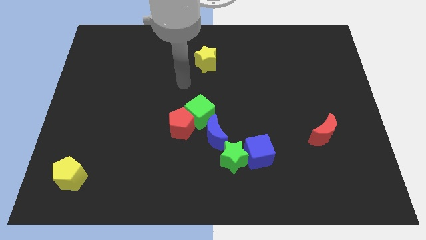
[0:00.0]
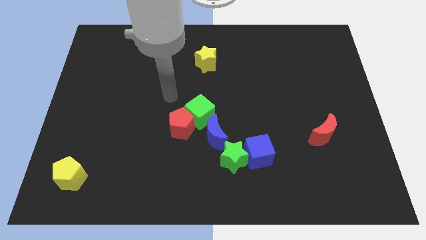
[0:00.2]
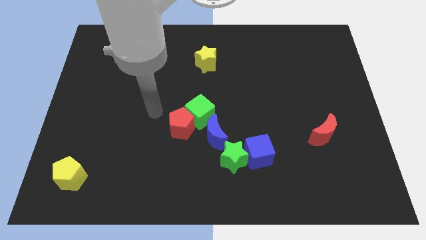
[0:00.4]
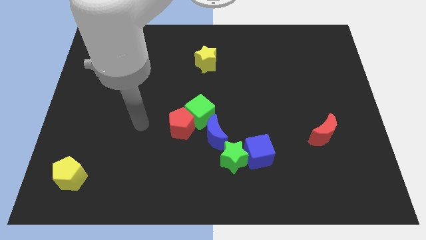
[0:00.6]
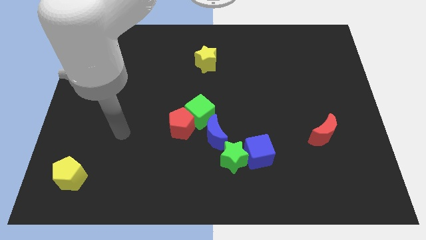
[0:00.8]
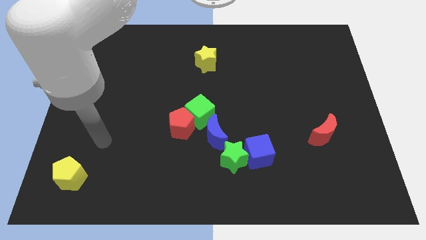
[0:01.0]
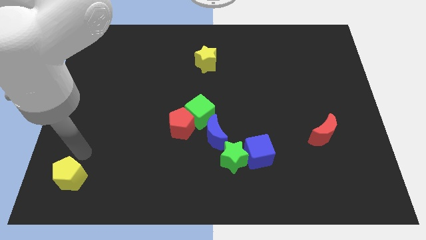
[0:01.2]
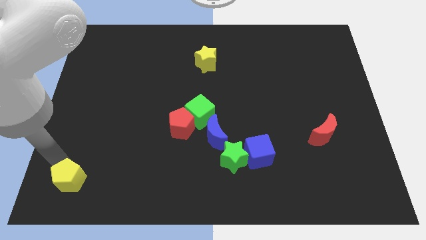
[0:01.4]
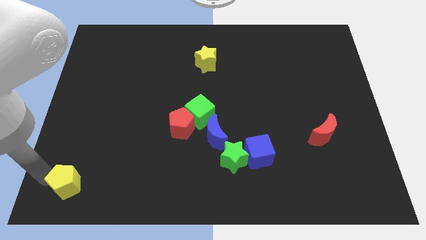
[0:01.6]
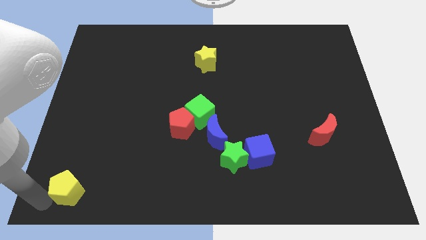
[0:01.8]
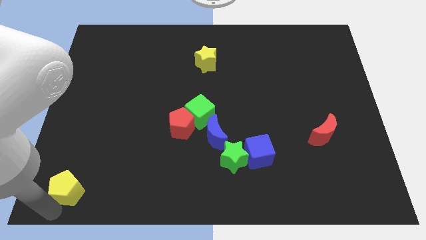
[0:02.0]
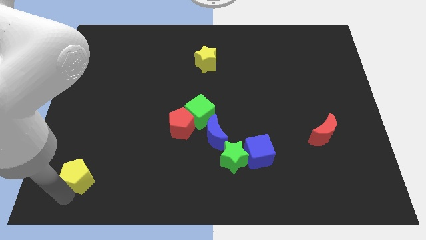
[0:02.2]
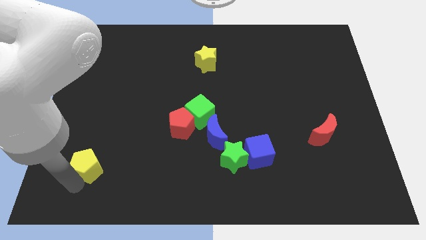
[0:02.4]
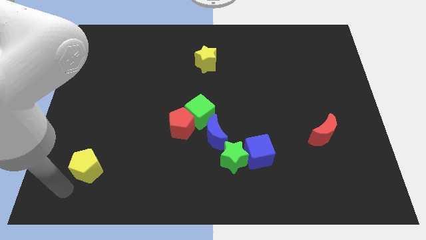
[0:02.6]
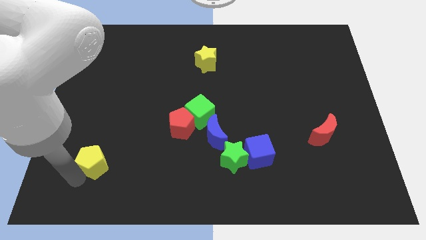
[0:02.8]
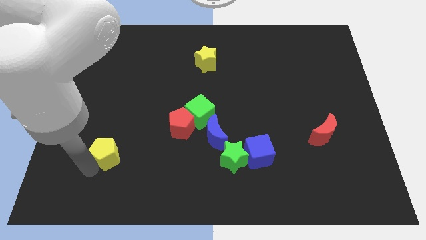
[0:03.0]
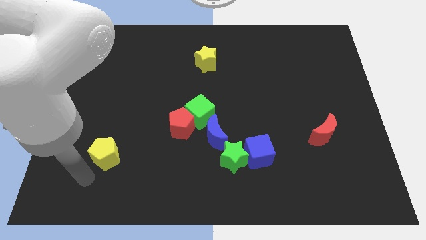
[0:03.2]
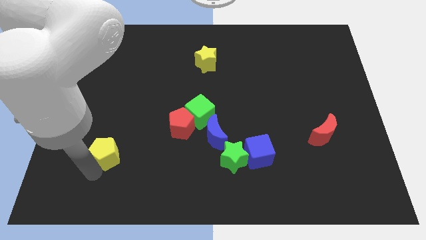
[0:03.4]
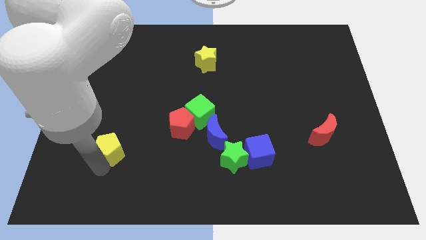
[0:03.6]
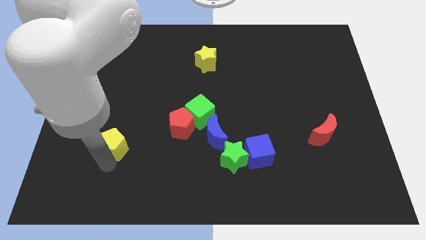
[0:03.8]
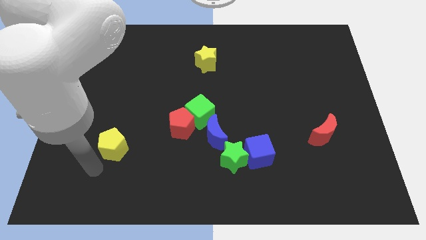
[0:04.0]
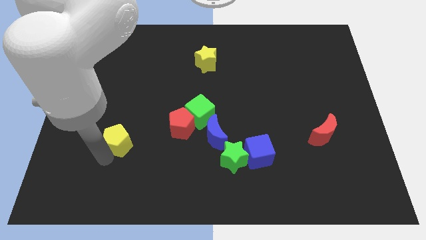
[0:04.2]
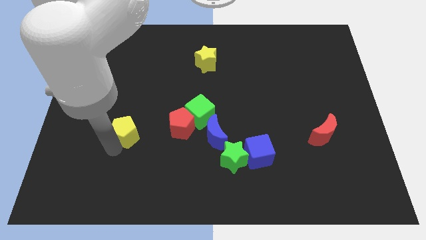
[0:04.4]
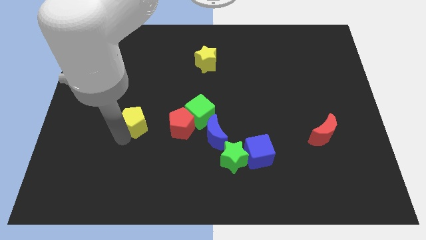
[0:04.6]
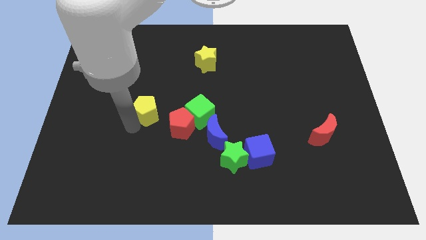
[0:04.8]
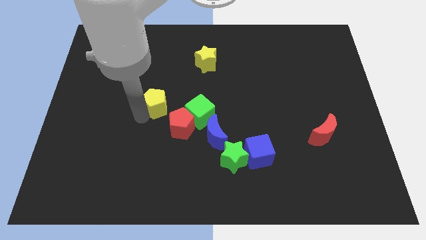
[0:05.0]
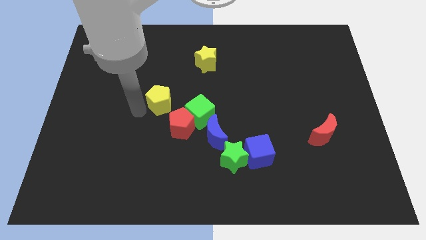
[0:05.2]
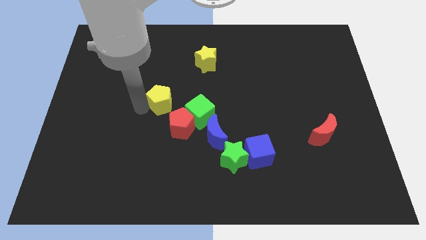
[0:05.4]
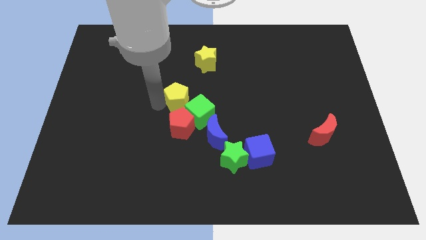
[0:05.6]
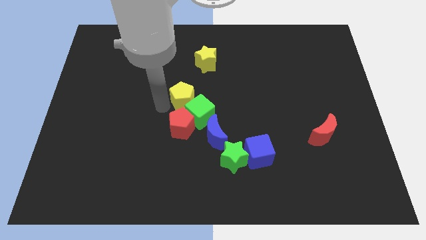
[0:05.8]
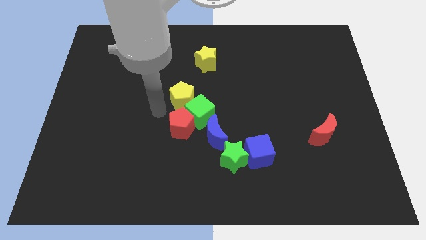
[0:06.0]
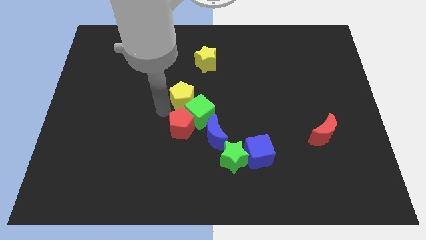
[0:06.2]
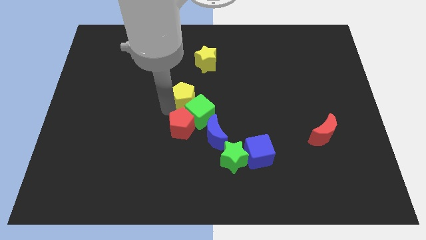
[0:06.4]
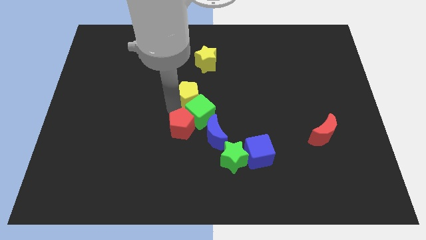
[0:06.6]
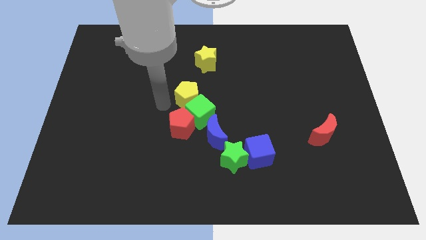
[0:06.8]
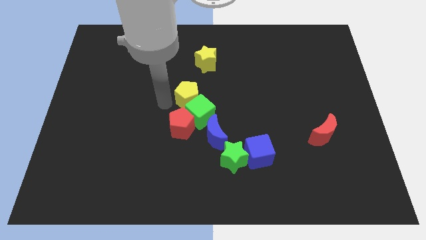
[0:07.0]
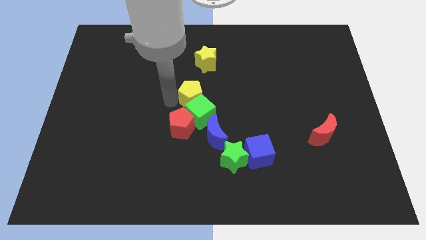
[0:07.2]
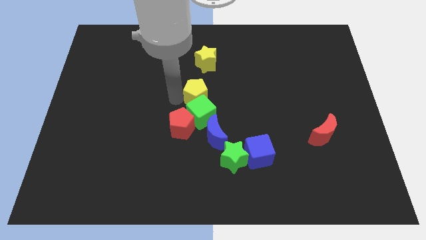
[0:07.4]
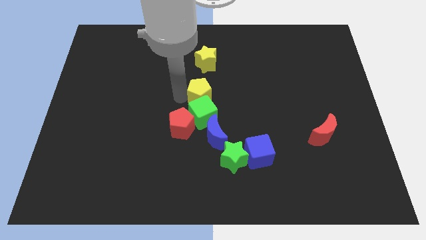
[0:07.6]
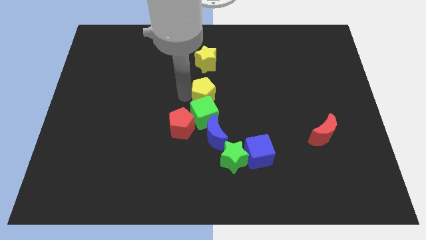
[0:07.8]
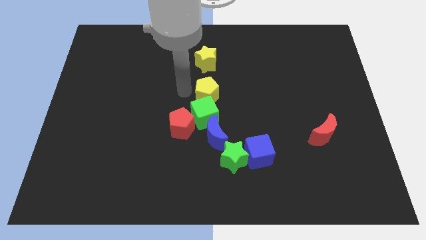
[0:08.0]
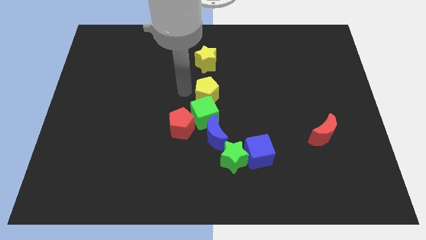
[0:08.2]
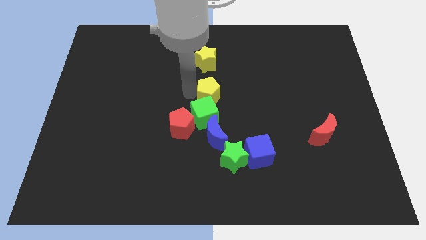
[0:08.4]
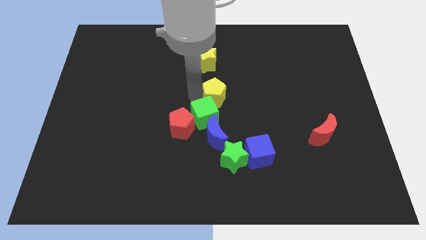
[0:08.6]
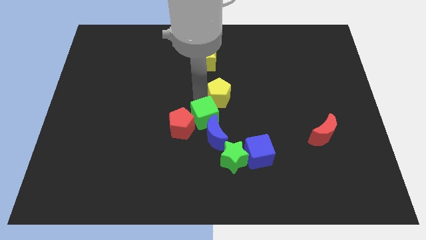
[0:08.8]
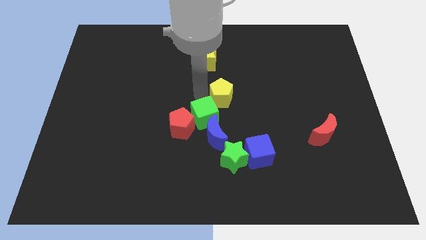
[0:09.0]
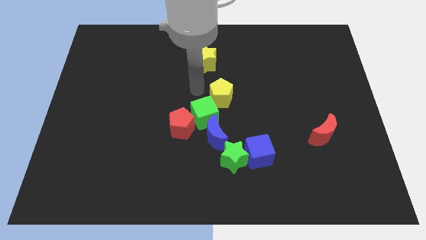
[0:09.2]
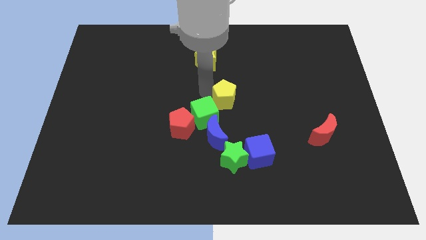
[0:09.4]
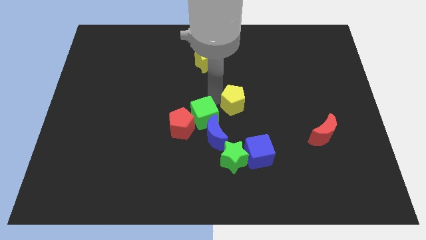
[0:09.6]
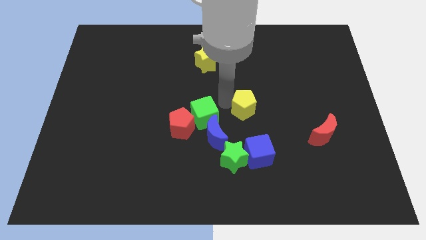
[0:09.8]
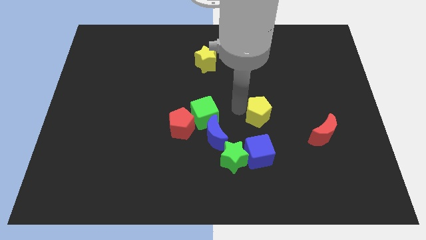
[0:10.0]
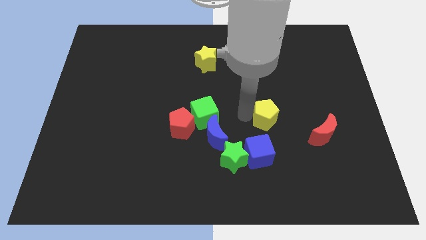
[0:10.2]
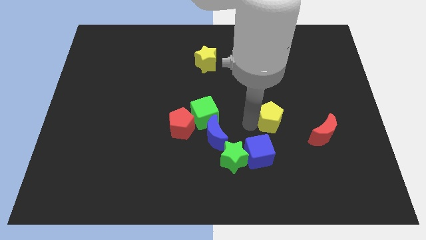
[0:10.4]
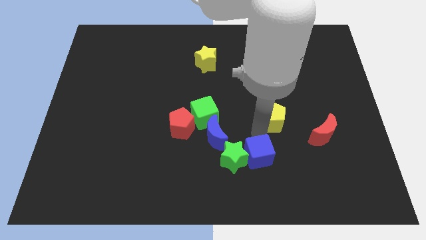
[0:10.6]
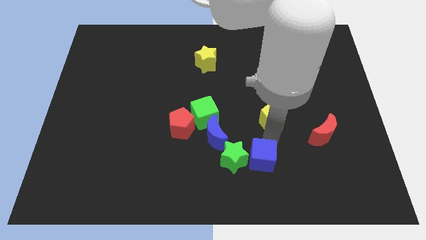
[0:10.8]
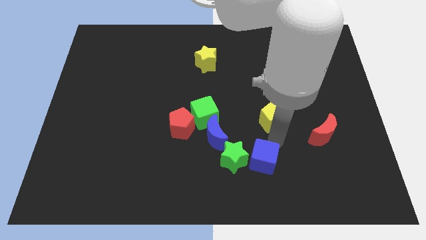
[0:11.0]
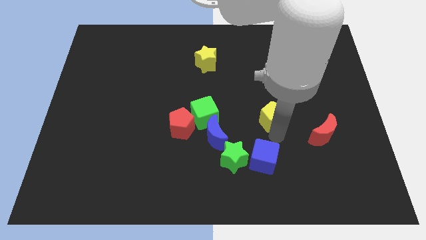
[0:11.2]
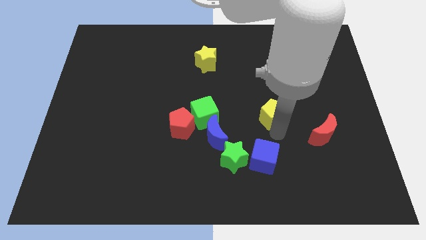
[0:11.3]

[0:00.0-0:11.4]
slide the yellow pentagon to the top left of the red moon

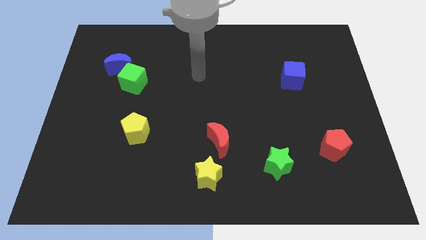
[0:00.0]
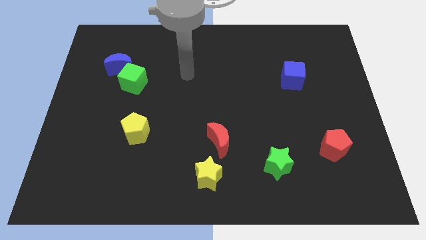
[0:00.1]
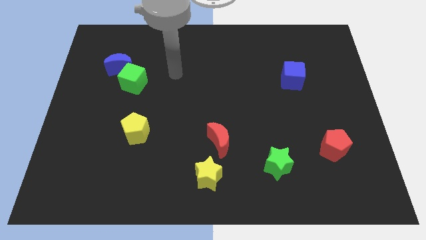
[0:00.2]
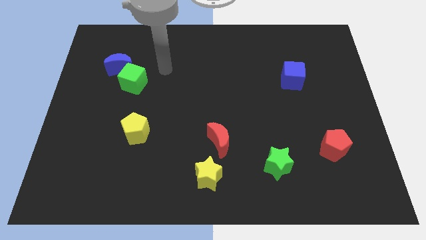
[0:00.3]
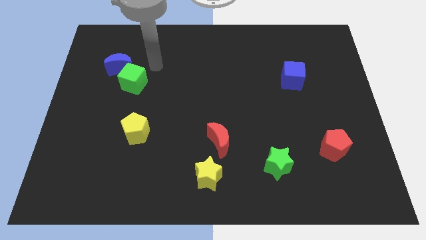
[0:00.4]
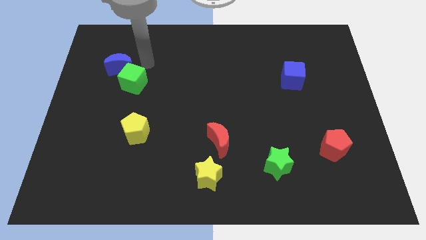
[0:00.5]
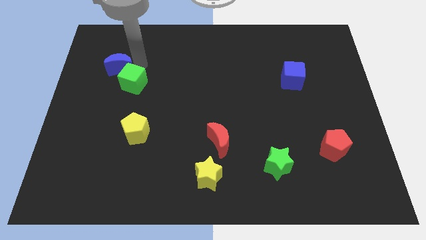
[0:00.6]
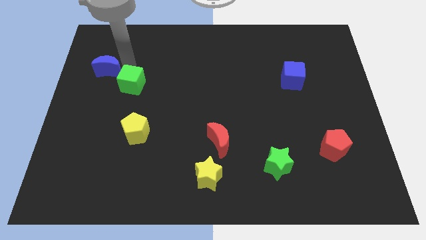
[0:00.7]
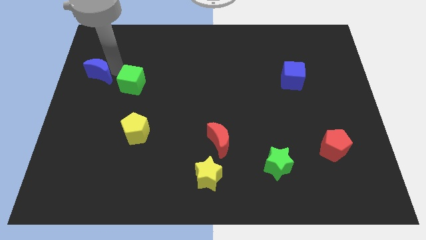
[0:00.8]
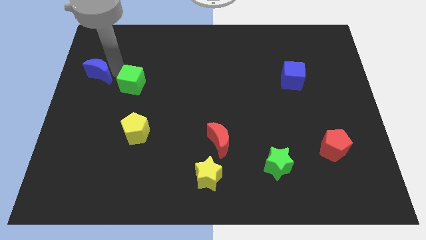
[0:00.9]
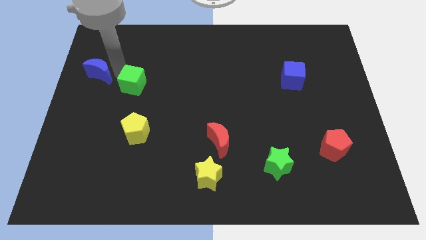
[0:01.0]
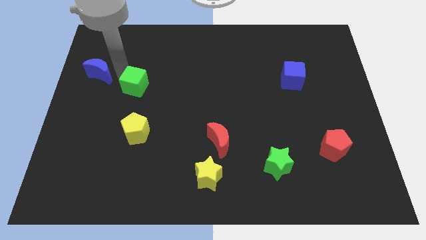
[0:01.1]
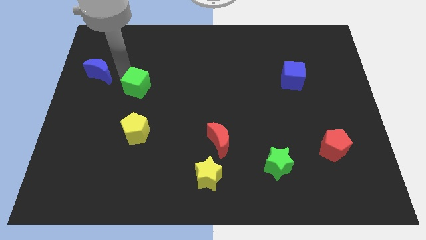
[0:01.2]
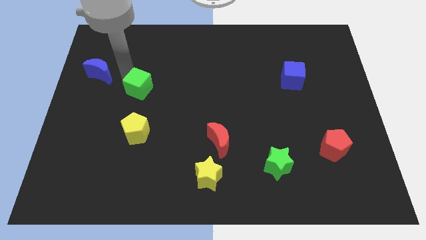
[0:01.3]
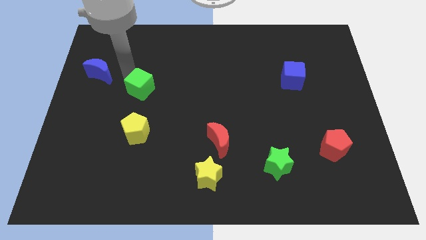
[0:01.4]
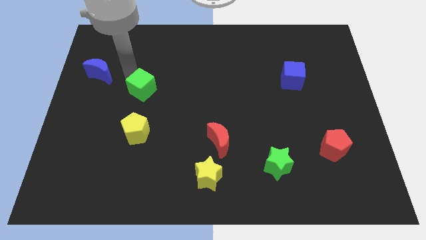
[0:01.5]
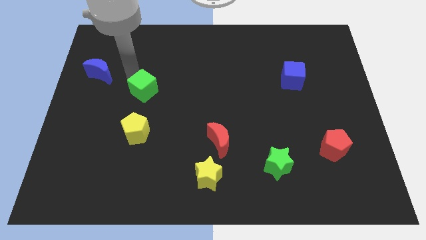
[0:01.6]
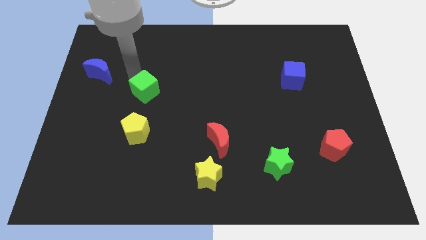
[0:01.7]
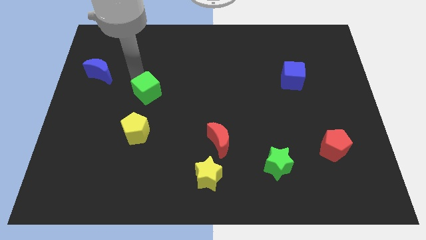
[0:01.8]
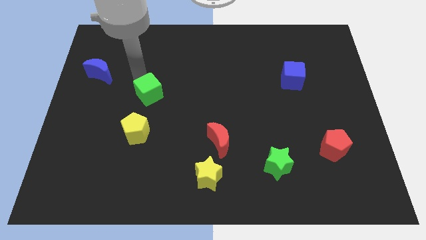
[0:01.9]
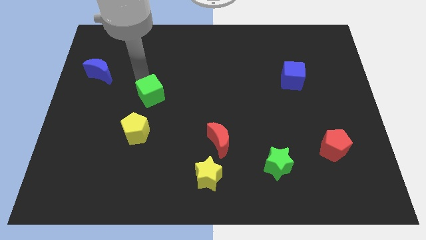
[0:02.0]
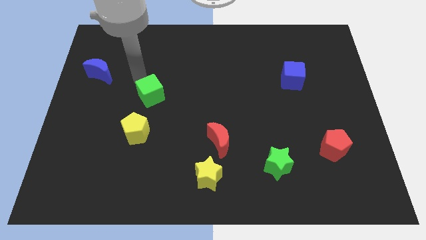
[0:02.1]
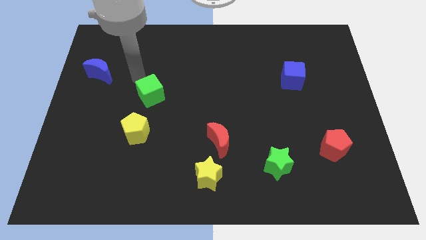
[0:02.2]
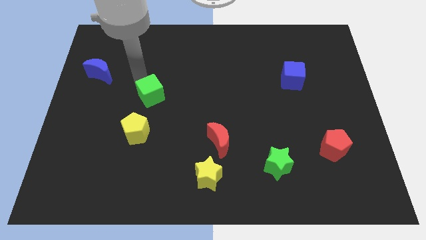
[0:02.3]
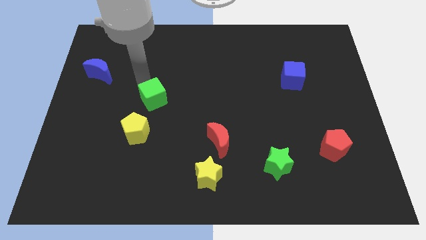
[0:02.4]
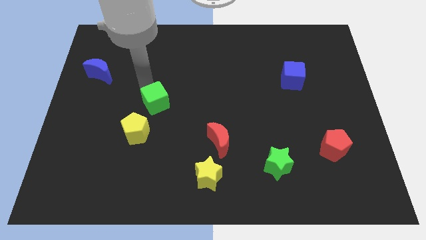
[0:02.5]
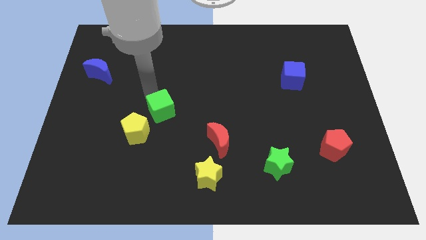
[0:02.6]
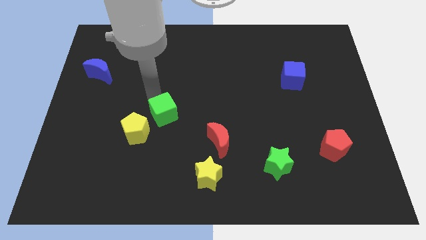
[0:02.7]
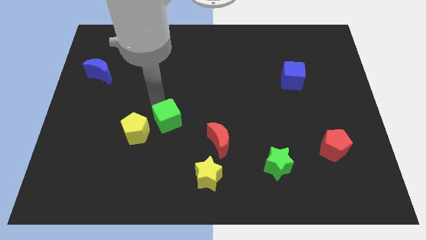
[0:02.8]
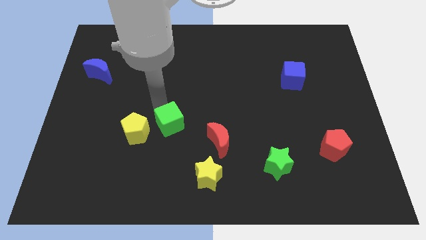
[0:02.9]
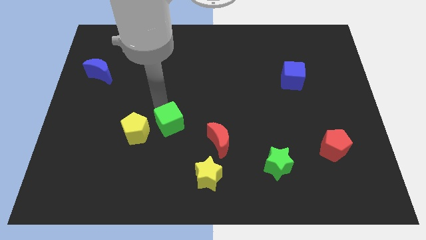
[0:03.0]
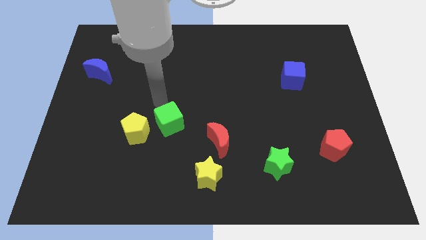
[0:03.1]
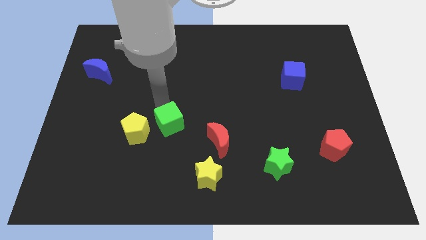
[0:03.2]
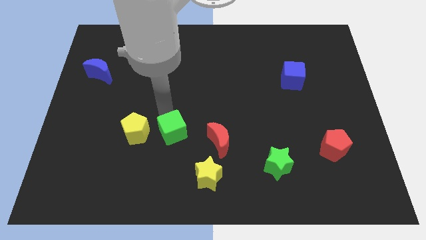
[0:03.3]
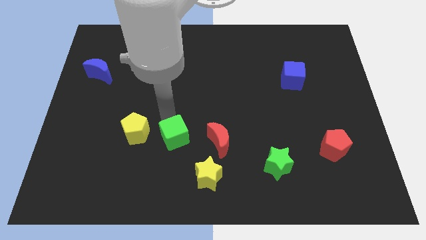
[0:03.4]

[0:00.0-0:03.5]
slide the green cube to the top left of the yellow star
